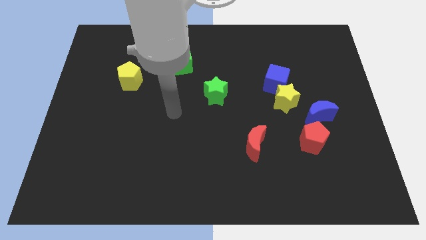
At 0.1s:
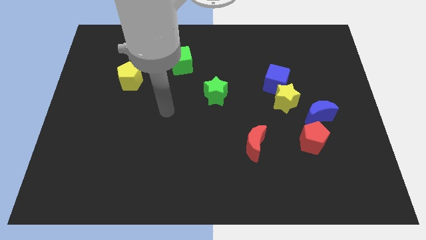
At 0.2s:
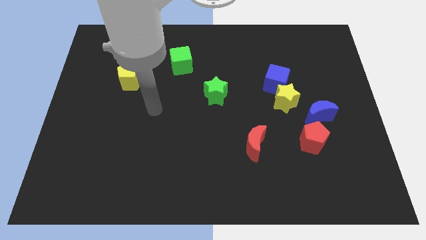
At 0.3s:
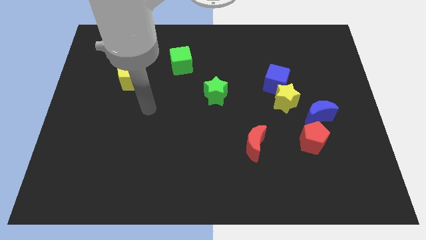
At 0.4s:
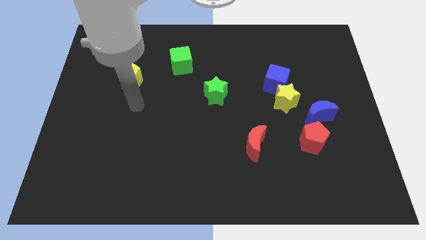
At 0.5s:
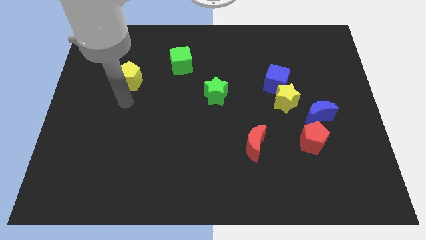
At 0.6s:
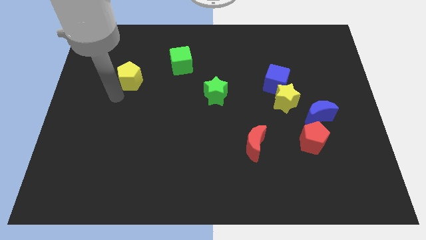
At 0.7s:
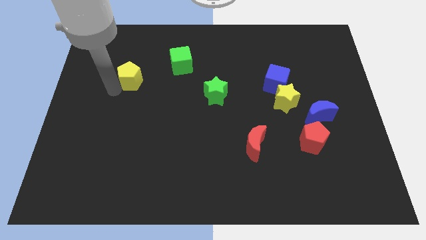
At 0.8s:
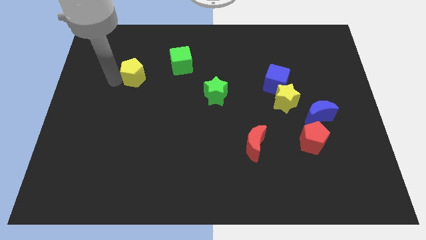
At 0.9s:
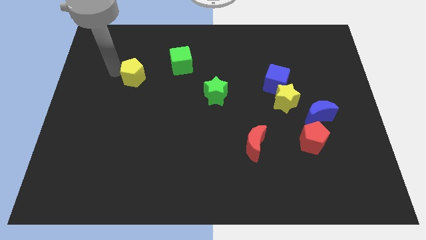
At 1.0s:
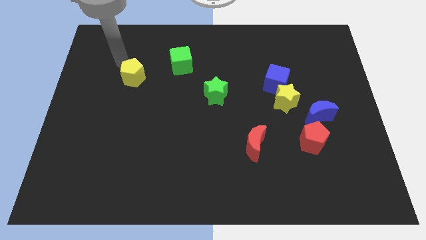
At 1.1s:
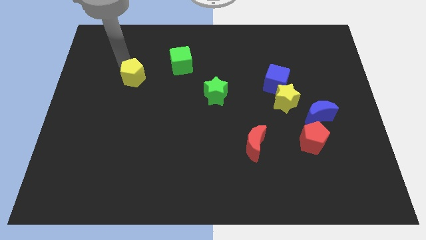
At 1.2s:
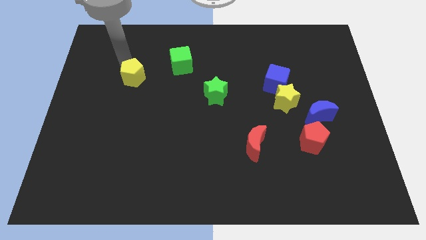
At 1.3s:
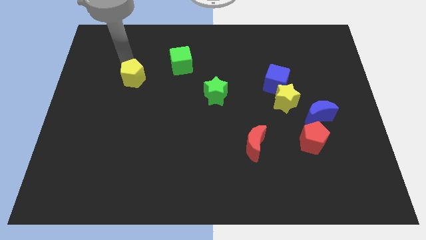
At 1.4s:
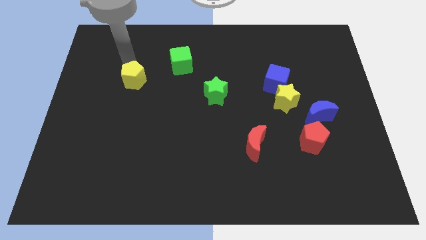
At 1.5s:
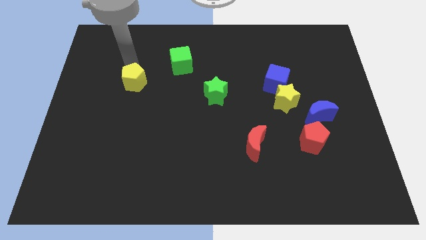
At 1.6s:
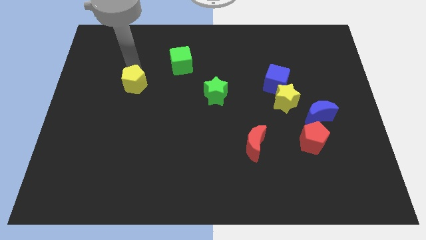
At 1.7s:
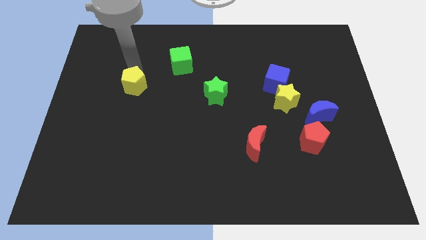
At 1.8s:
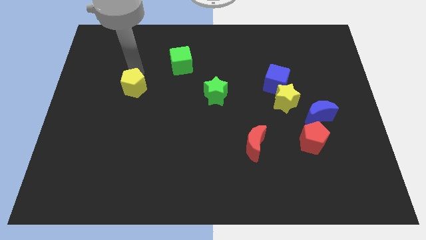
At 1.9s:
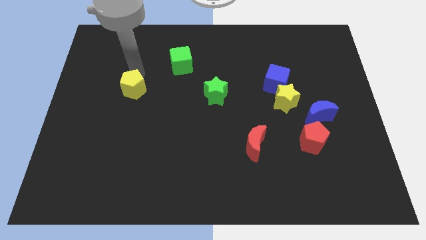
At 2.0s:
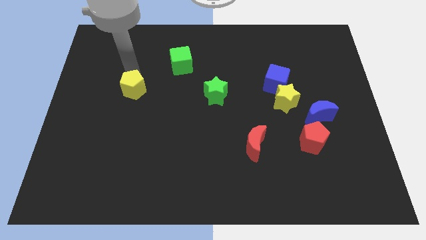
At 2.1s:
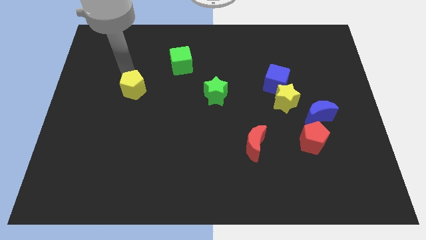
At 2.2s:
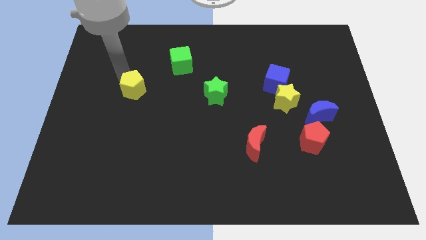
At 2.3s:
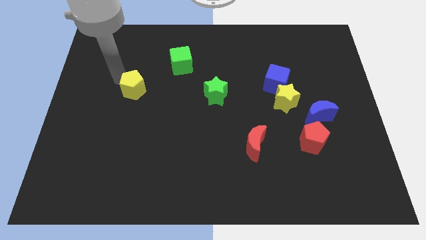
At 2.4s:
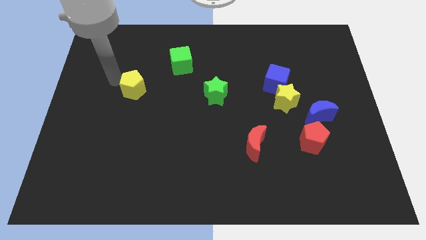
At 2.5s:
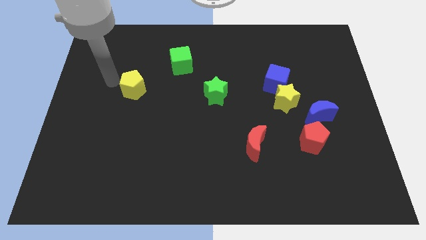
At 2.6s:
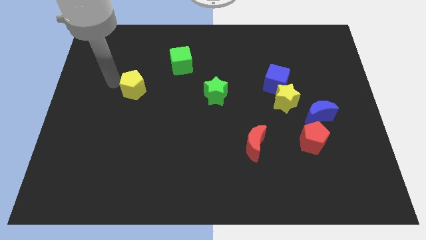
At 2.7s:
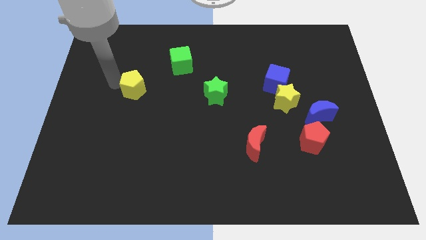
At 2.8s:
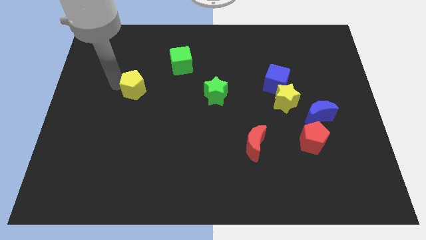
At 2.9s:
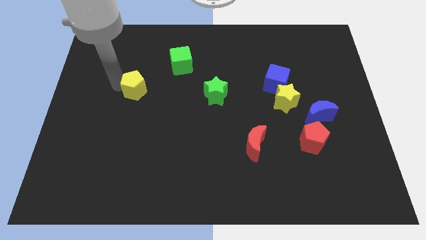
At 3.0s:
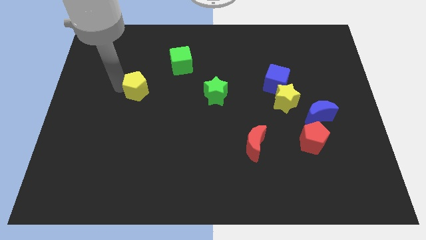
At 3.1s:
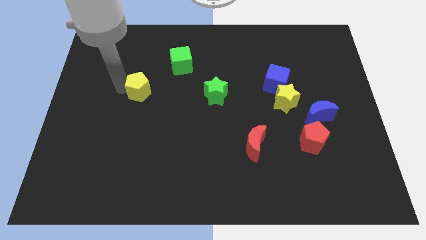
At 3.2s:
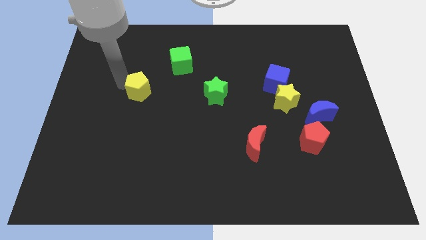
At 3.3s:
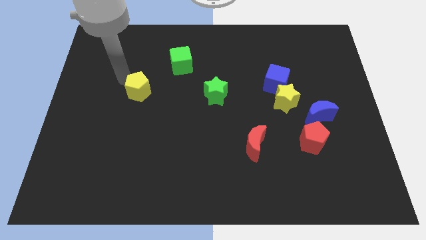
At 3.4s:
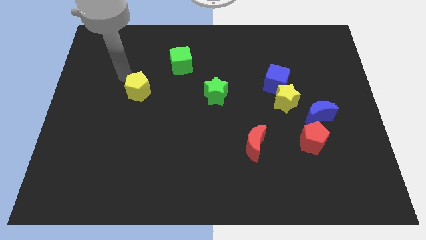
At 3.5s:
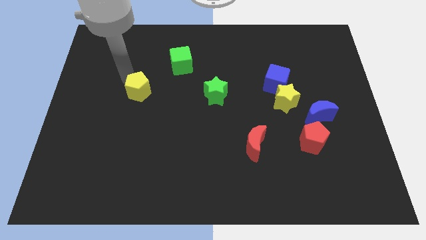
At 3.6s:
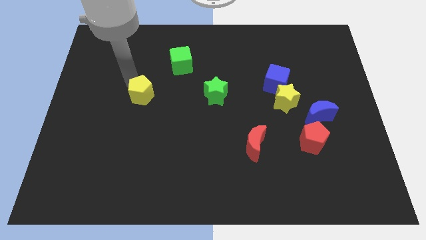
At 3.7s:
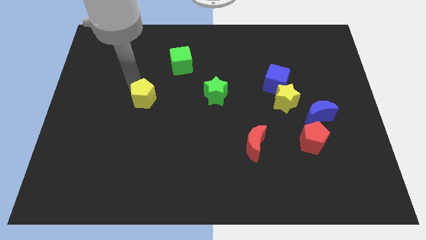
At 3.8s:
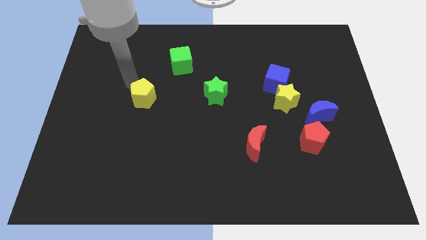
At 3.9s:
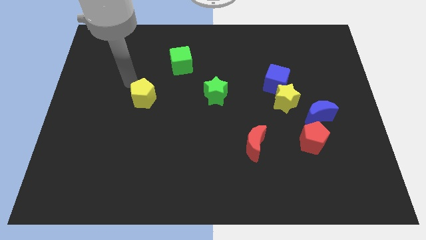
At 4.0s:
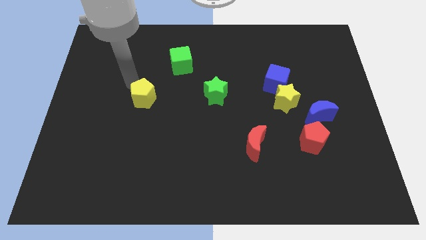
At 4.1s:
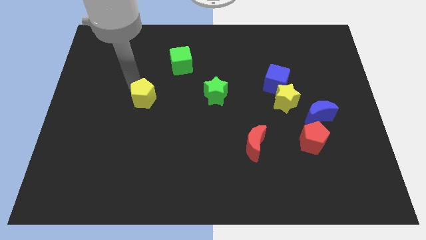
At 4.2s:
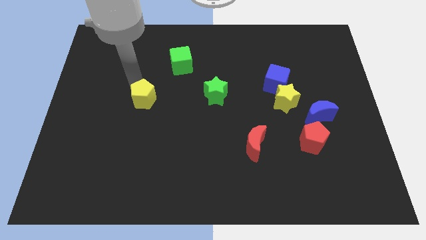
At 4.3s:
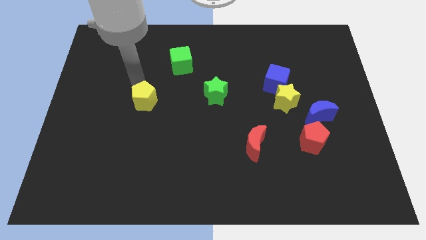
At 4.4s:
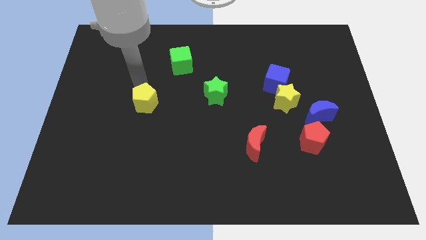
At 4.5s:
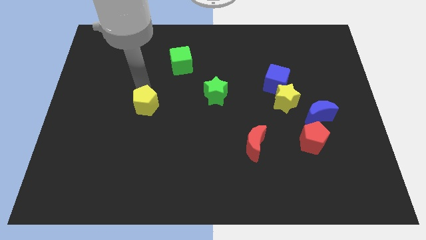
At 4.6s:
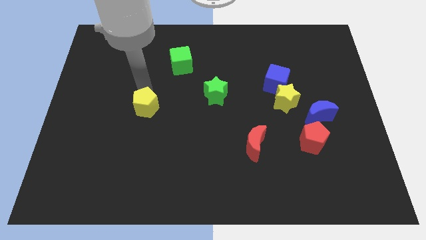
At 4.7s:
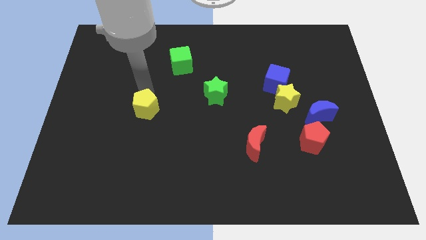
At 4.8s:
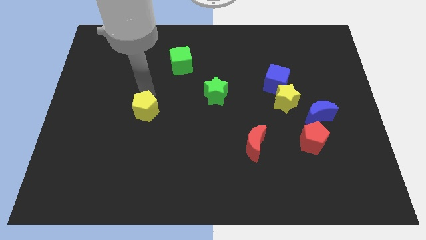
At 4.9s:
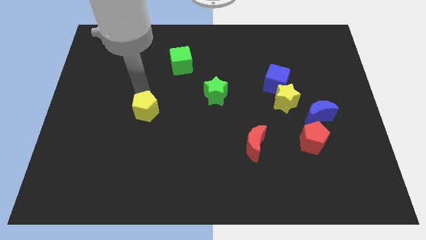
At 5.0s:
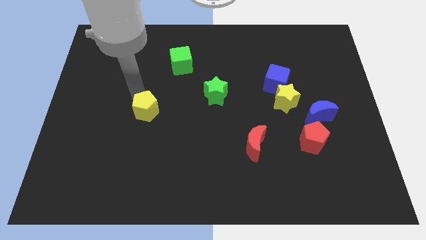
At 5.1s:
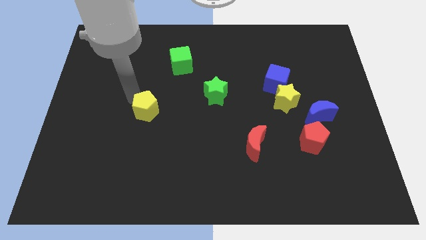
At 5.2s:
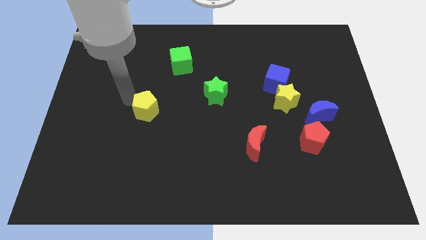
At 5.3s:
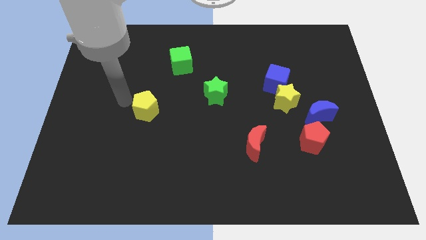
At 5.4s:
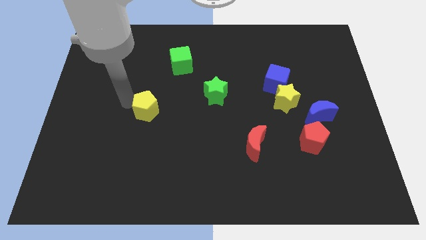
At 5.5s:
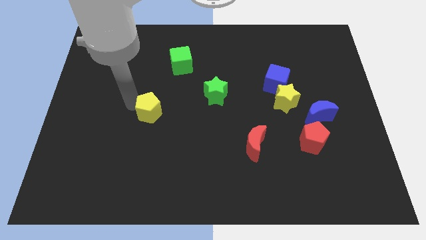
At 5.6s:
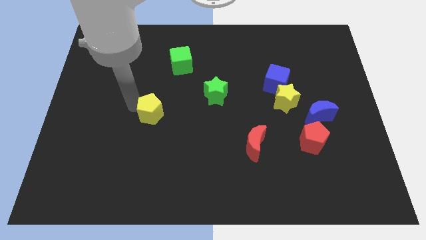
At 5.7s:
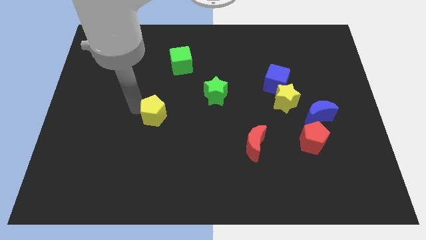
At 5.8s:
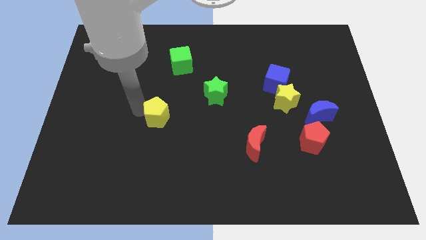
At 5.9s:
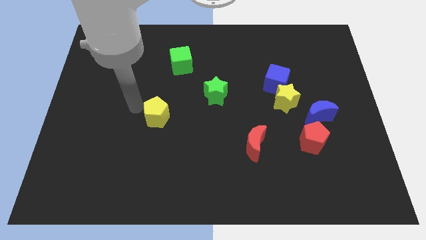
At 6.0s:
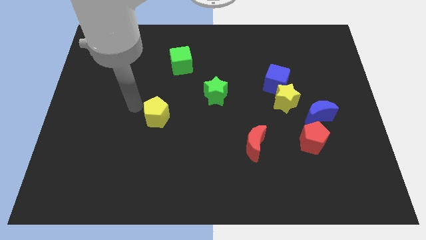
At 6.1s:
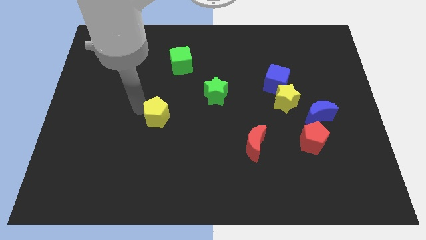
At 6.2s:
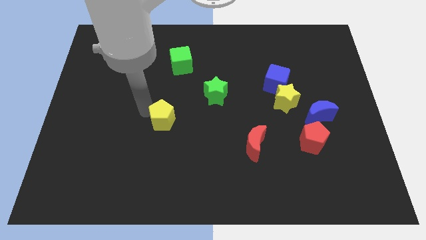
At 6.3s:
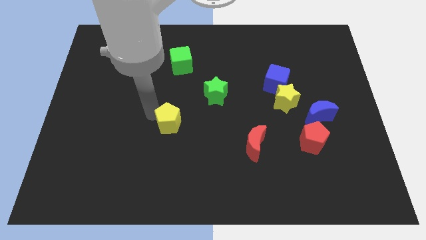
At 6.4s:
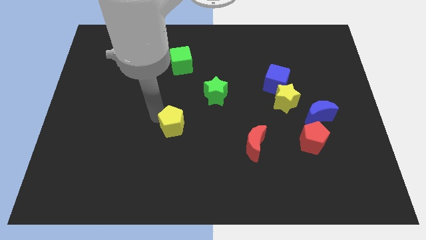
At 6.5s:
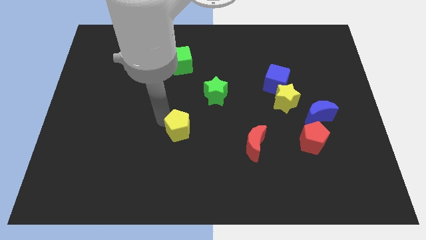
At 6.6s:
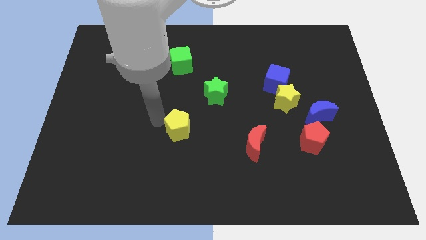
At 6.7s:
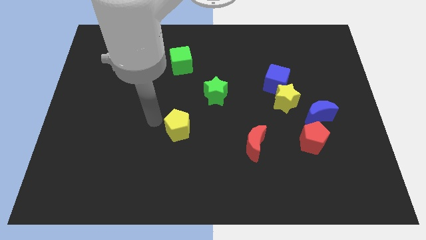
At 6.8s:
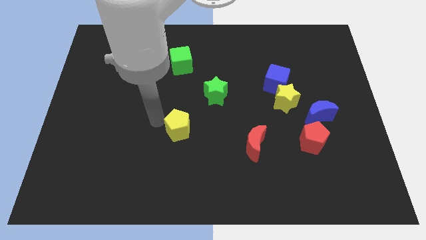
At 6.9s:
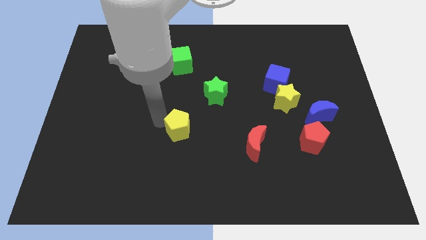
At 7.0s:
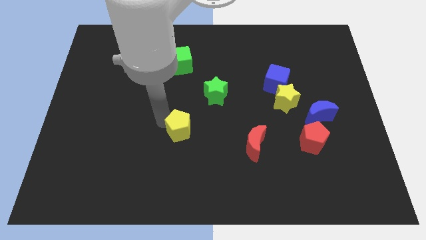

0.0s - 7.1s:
slide the yellow pentagon diagonally down and to the right

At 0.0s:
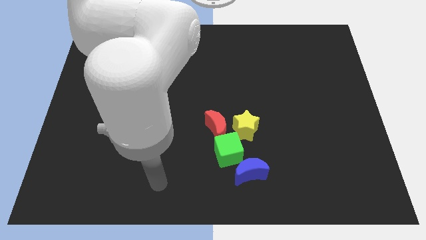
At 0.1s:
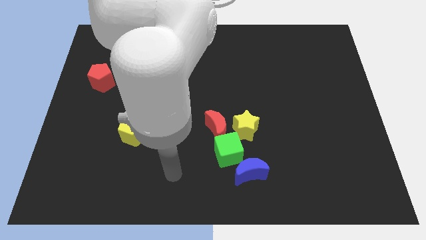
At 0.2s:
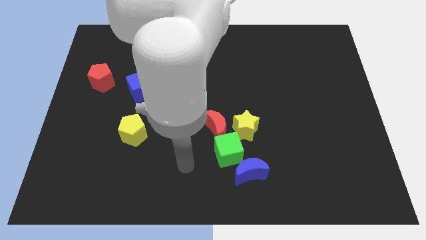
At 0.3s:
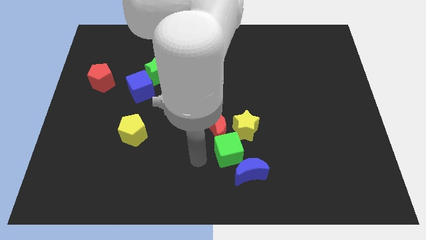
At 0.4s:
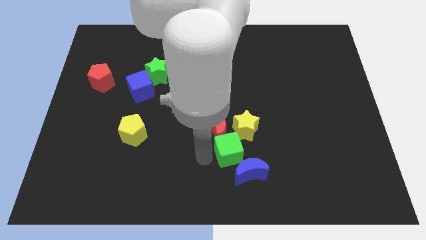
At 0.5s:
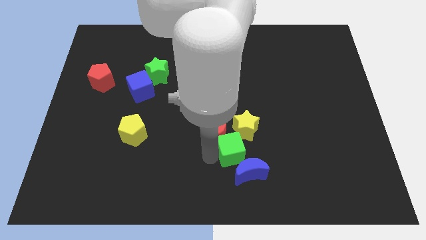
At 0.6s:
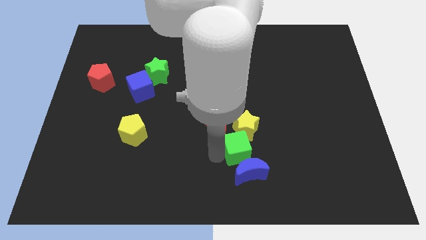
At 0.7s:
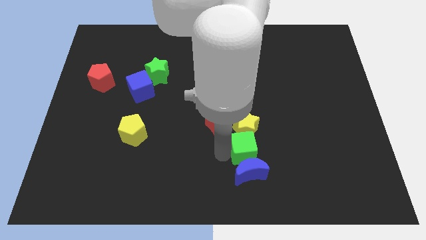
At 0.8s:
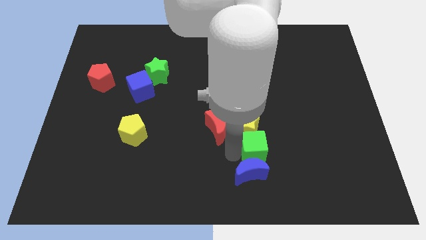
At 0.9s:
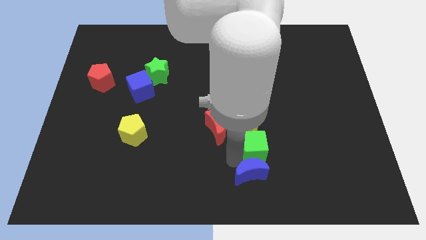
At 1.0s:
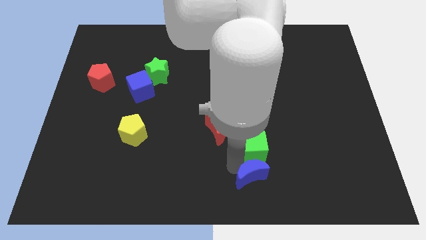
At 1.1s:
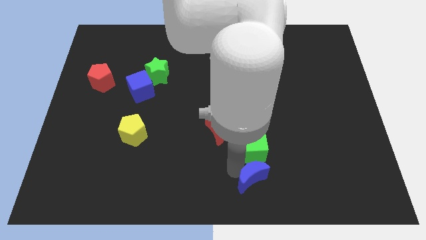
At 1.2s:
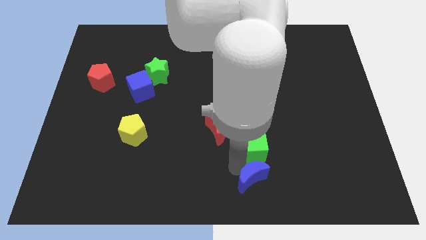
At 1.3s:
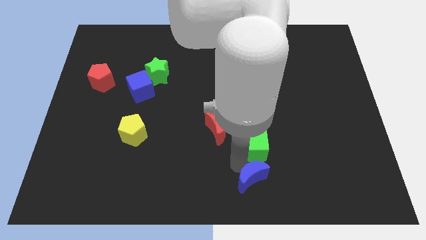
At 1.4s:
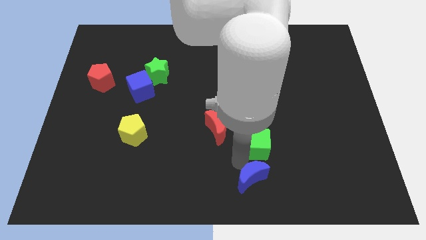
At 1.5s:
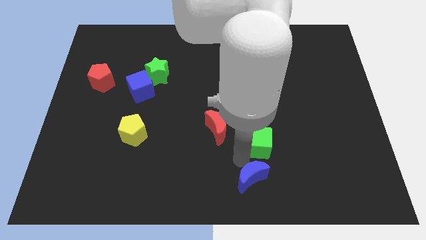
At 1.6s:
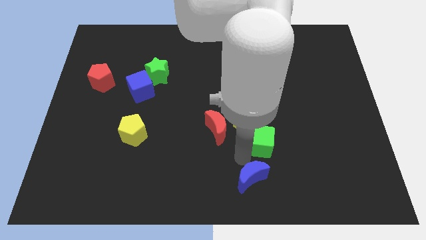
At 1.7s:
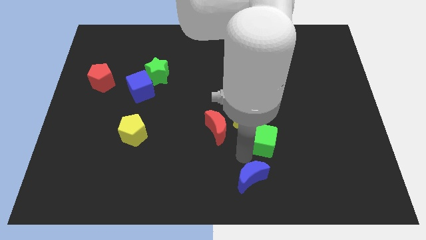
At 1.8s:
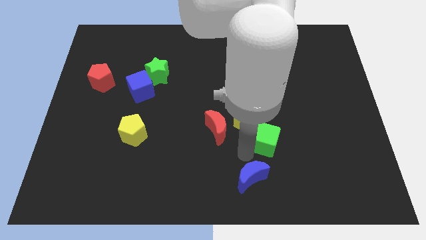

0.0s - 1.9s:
move the green cube a bit up and to the right diagonally
